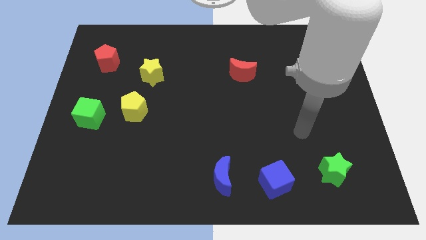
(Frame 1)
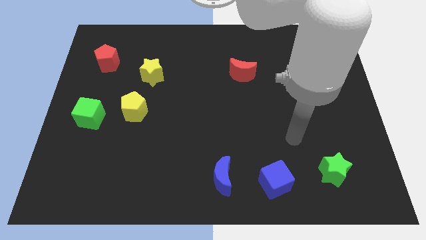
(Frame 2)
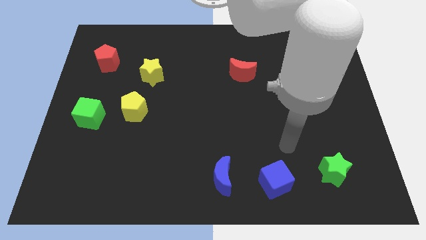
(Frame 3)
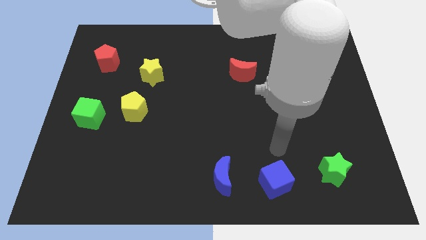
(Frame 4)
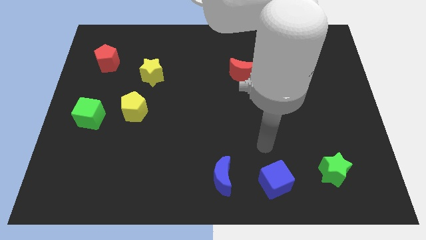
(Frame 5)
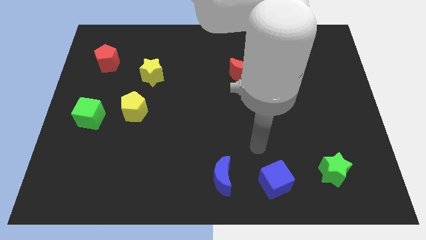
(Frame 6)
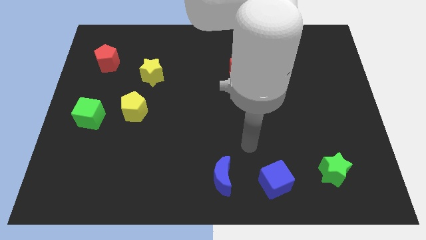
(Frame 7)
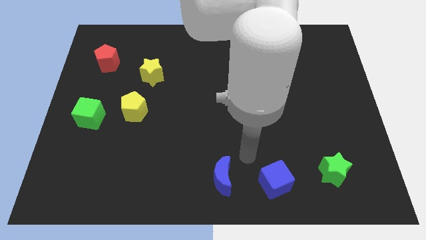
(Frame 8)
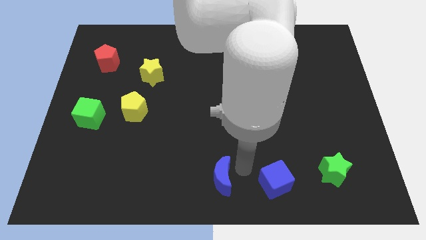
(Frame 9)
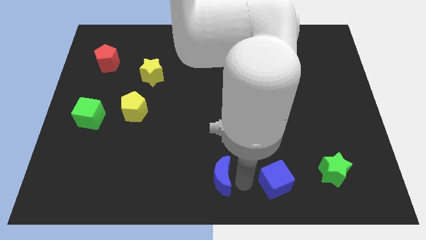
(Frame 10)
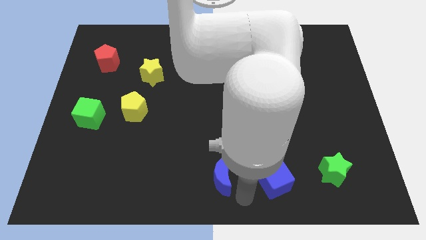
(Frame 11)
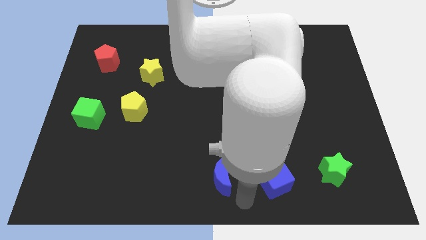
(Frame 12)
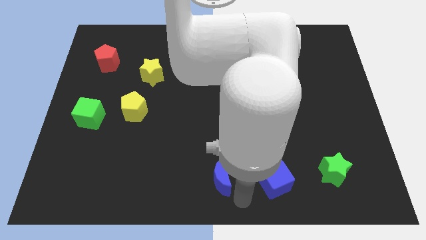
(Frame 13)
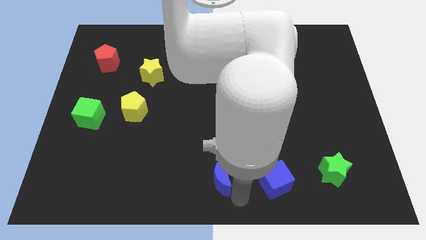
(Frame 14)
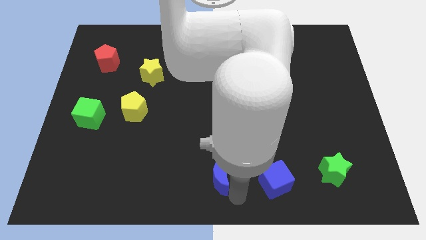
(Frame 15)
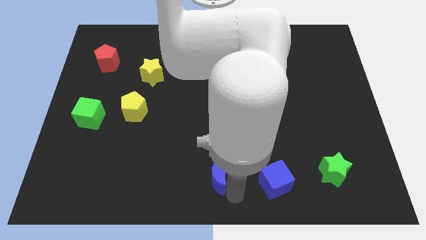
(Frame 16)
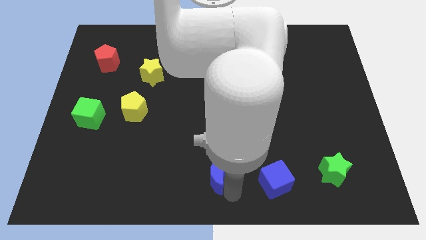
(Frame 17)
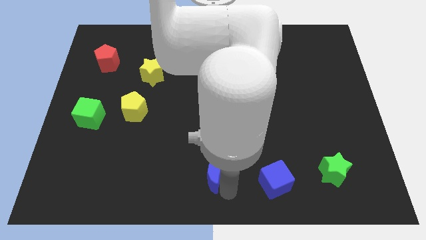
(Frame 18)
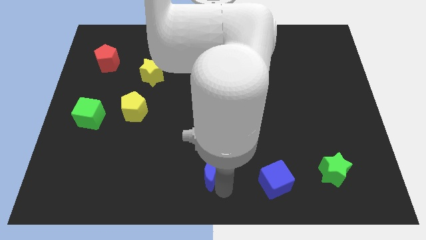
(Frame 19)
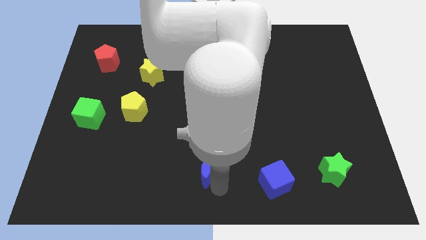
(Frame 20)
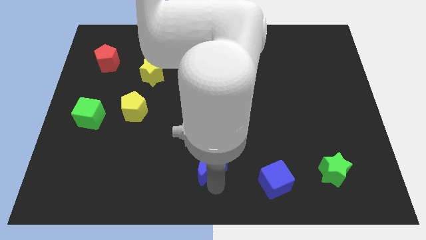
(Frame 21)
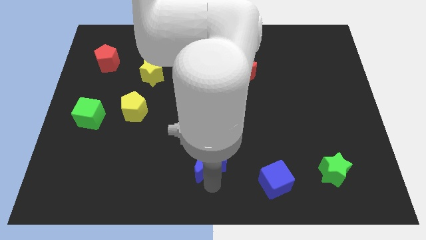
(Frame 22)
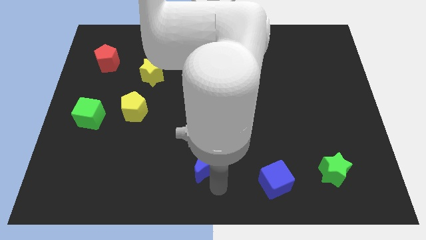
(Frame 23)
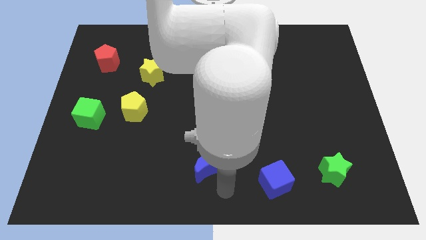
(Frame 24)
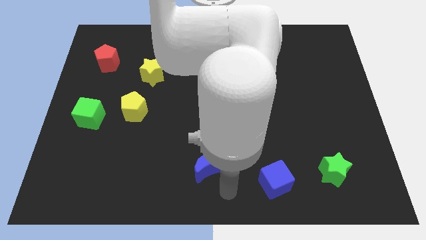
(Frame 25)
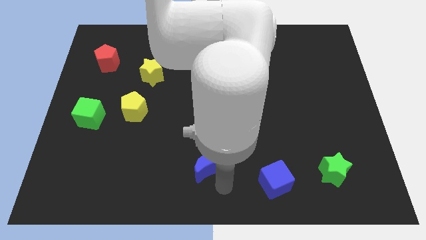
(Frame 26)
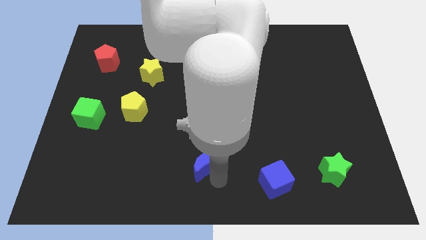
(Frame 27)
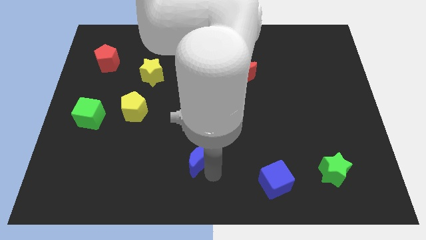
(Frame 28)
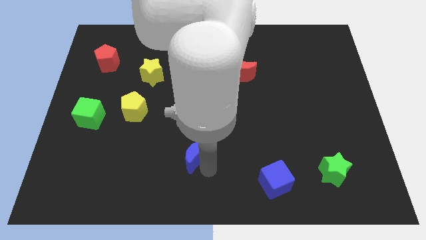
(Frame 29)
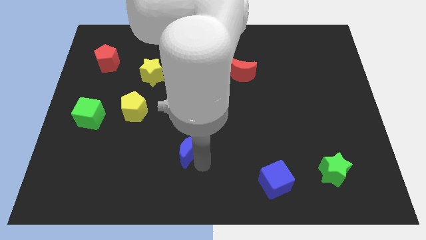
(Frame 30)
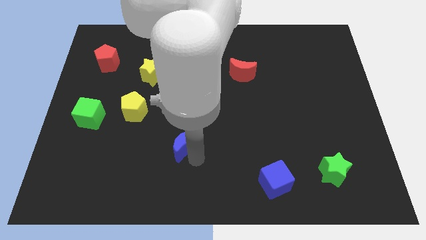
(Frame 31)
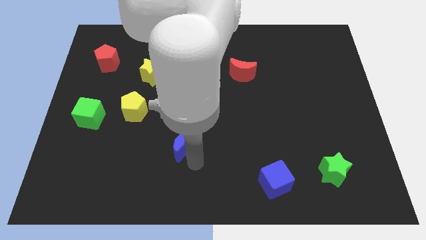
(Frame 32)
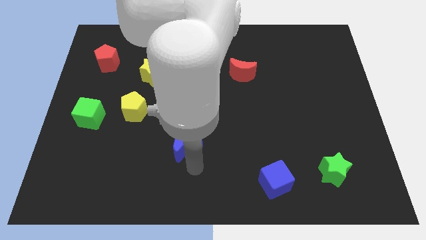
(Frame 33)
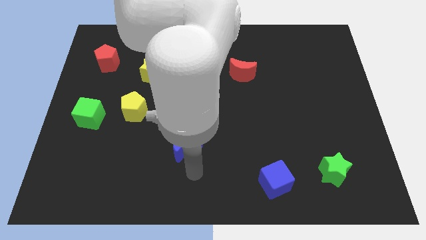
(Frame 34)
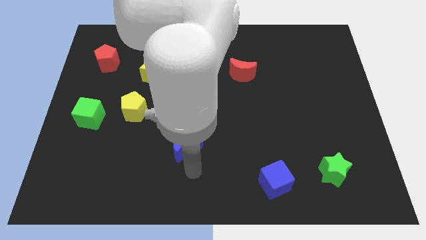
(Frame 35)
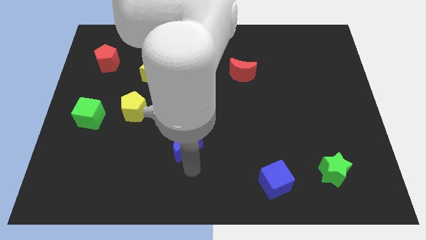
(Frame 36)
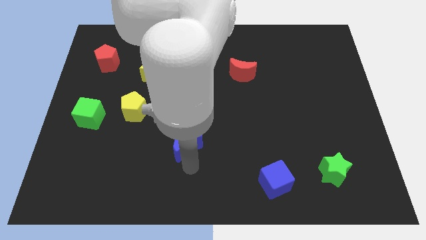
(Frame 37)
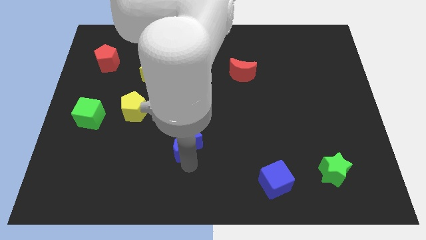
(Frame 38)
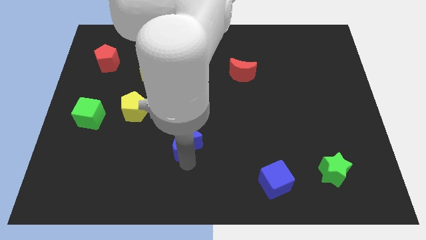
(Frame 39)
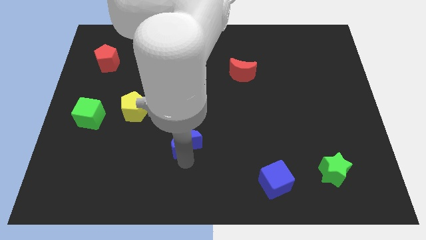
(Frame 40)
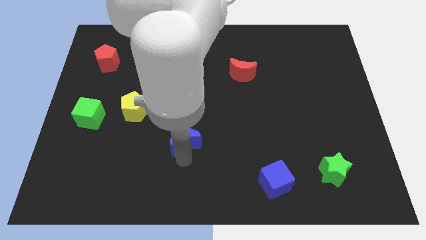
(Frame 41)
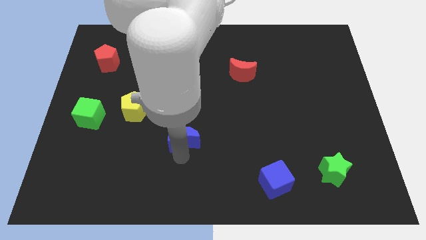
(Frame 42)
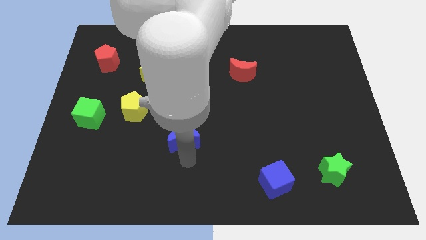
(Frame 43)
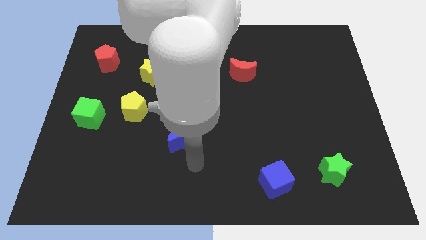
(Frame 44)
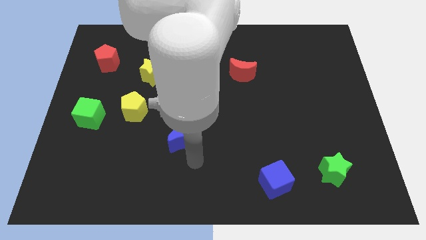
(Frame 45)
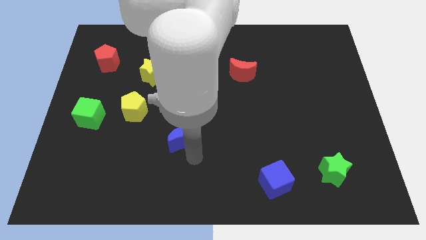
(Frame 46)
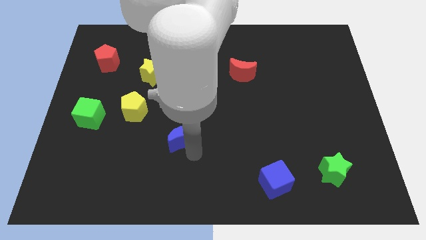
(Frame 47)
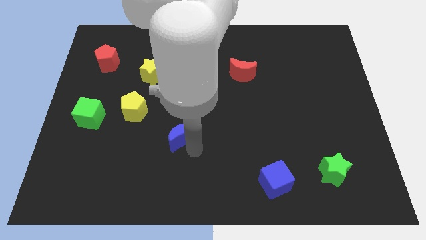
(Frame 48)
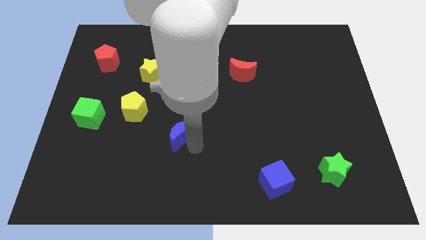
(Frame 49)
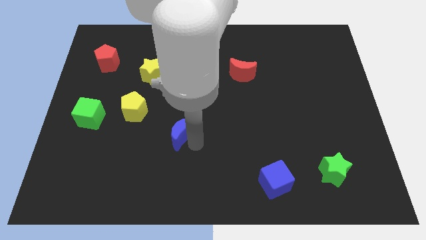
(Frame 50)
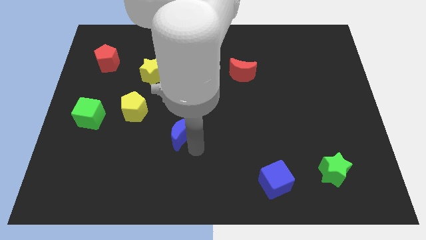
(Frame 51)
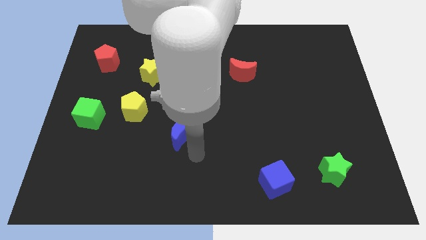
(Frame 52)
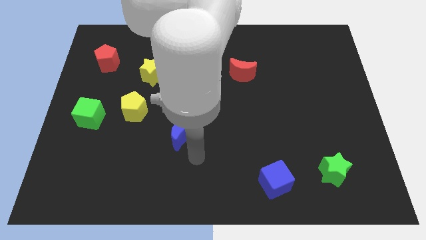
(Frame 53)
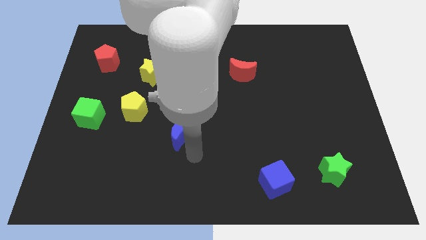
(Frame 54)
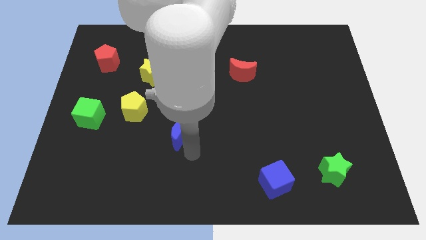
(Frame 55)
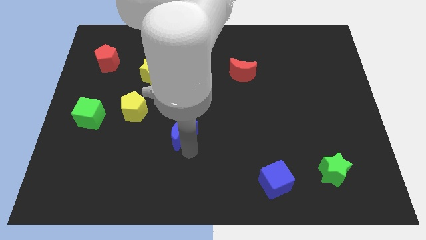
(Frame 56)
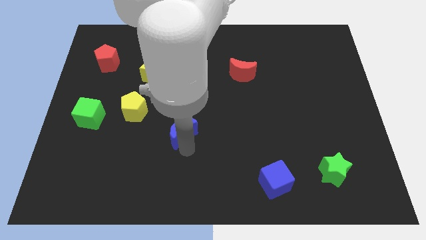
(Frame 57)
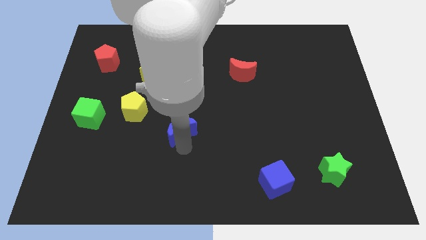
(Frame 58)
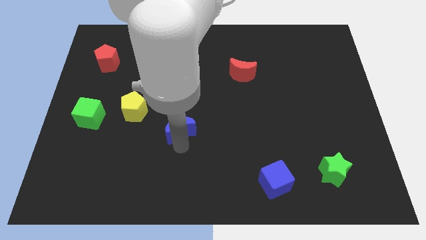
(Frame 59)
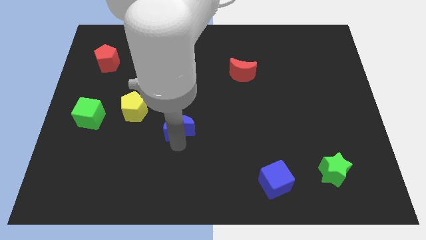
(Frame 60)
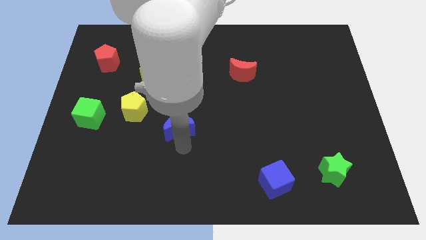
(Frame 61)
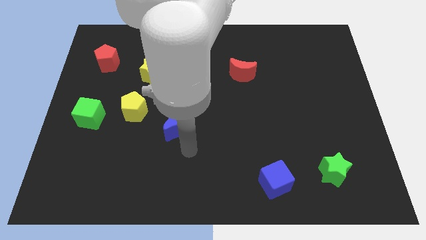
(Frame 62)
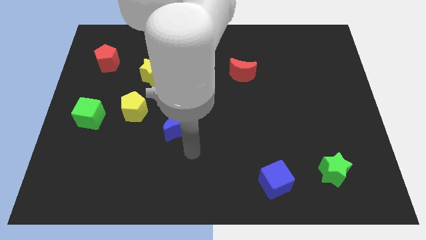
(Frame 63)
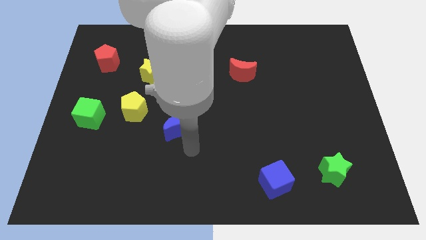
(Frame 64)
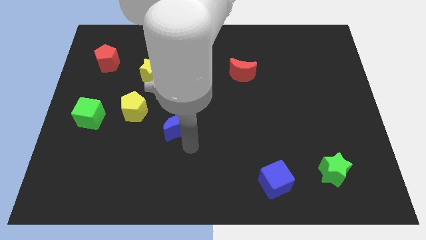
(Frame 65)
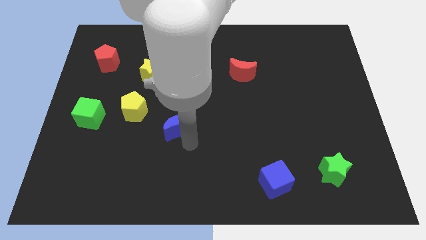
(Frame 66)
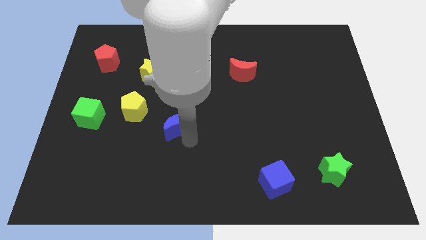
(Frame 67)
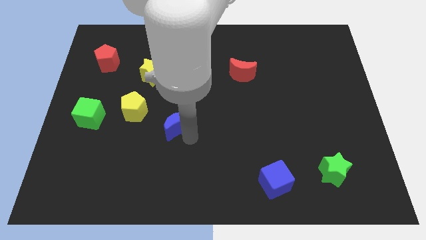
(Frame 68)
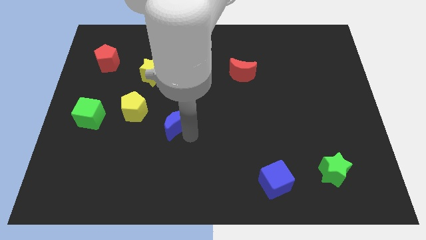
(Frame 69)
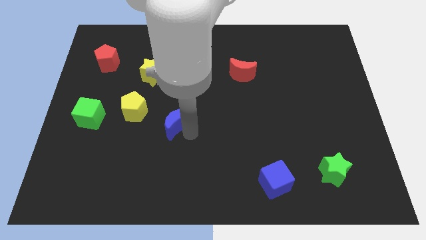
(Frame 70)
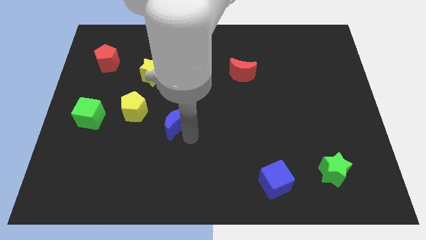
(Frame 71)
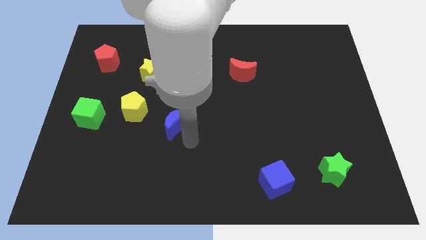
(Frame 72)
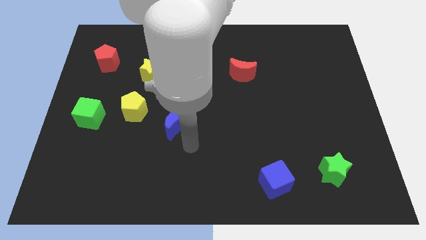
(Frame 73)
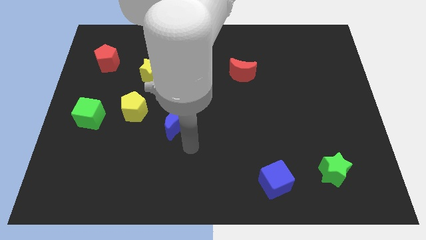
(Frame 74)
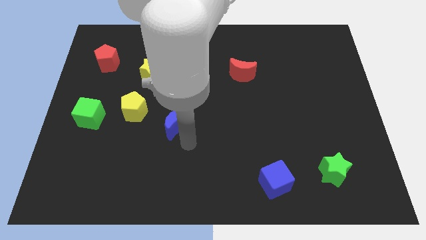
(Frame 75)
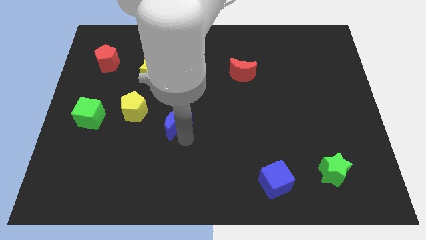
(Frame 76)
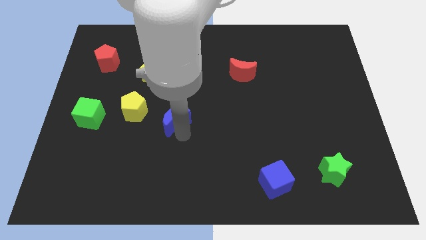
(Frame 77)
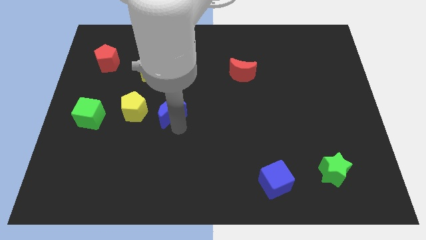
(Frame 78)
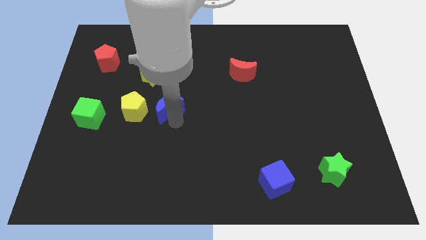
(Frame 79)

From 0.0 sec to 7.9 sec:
move the blue moon upwards and to the left
